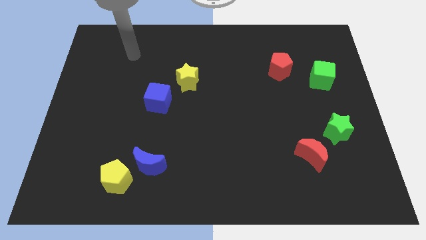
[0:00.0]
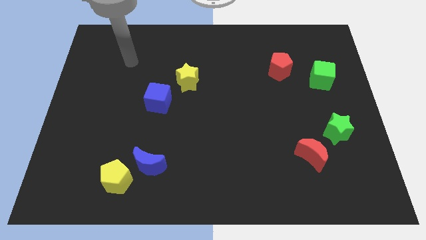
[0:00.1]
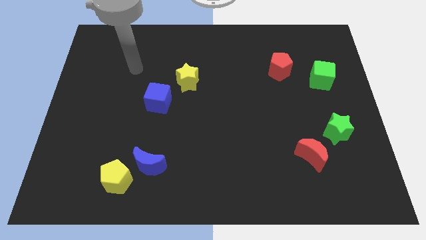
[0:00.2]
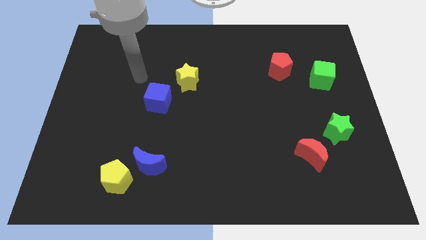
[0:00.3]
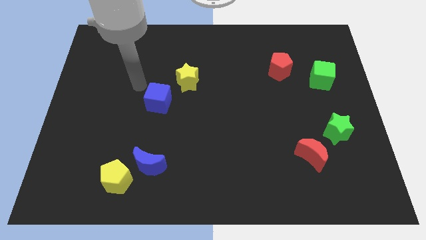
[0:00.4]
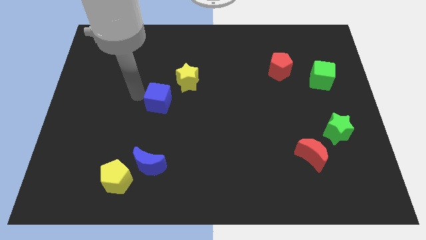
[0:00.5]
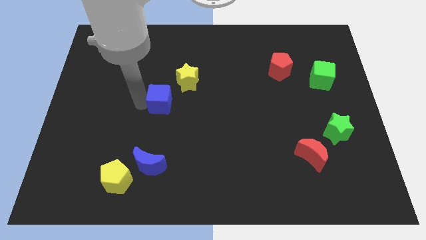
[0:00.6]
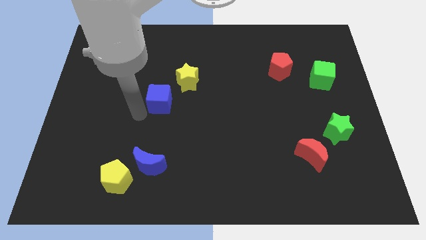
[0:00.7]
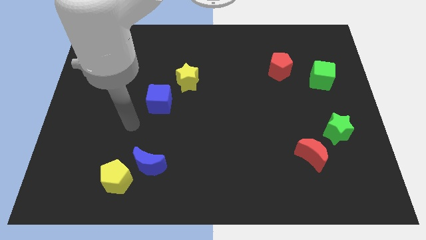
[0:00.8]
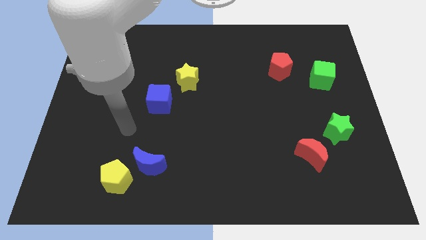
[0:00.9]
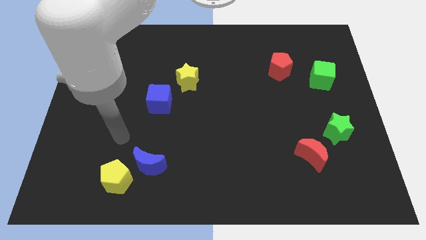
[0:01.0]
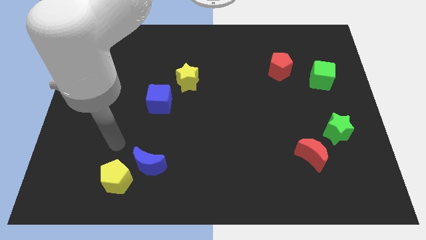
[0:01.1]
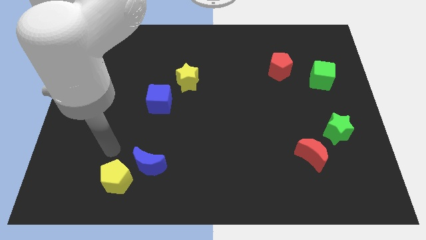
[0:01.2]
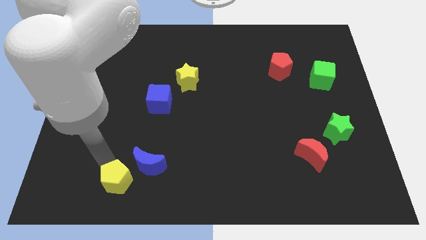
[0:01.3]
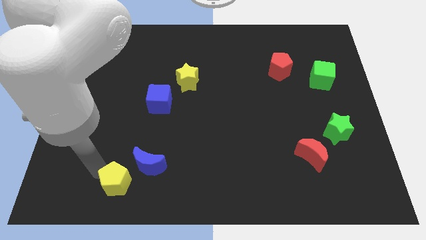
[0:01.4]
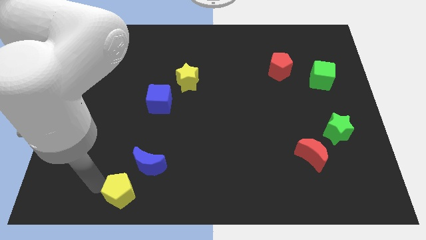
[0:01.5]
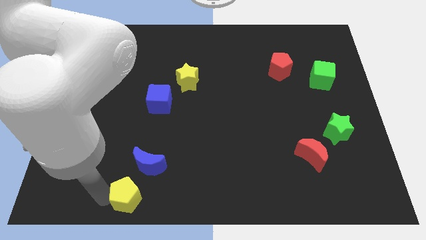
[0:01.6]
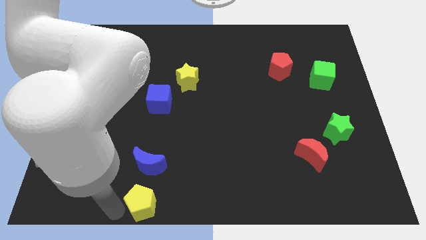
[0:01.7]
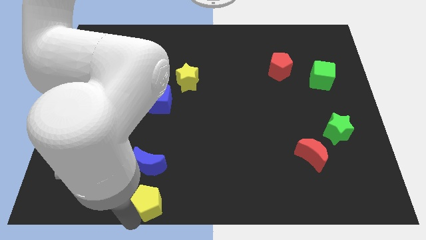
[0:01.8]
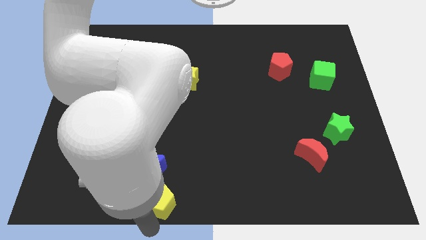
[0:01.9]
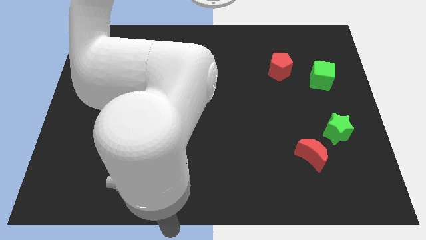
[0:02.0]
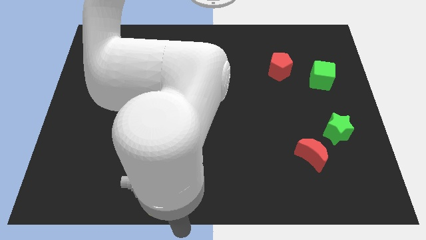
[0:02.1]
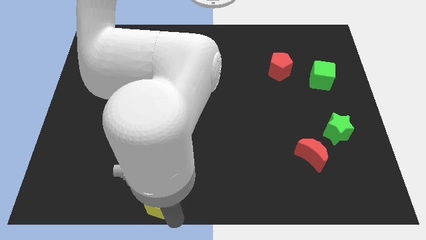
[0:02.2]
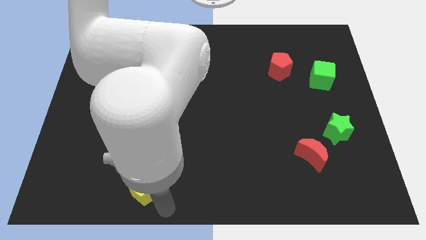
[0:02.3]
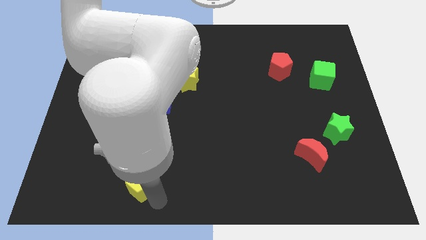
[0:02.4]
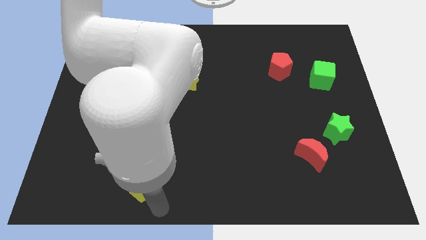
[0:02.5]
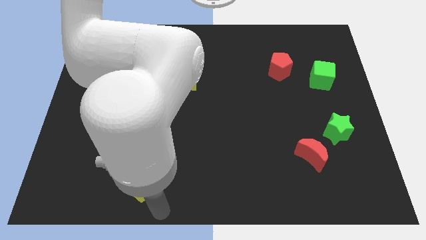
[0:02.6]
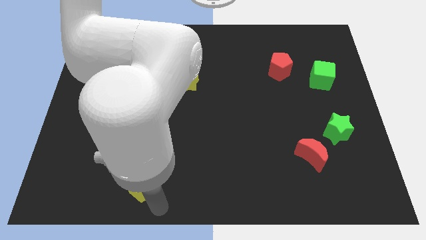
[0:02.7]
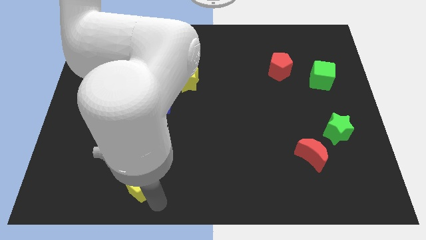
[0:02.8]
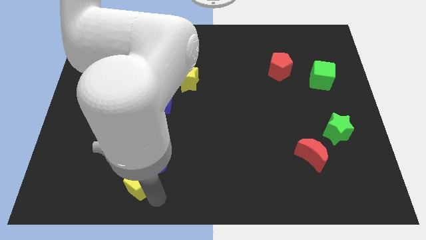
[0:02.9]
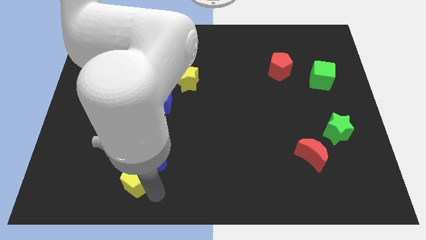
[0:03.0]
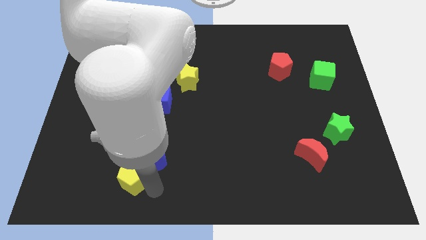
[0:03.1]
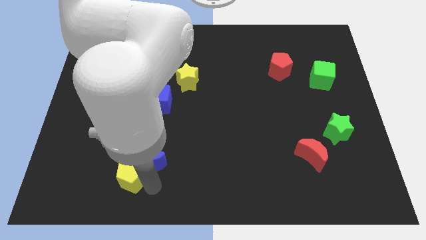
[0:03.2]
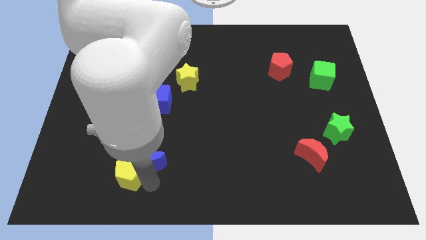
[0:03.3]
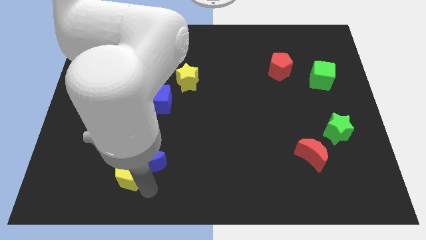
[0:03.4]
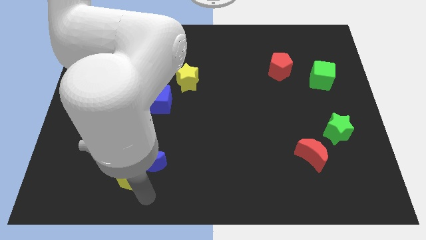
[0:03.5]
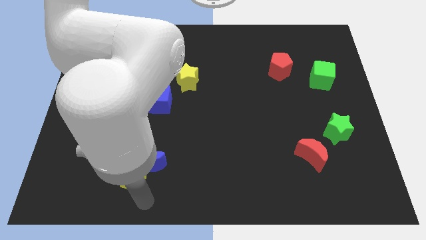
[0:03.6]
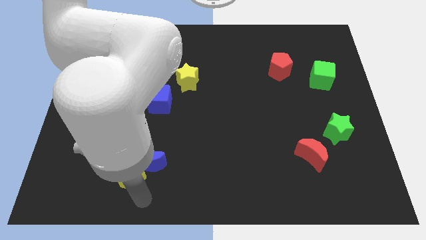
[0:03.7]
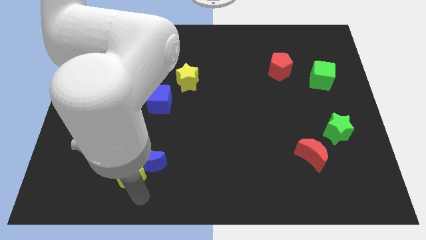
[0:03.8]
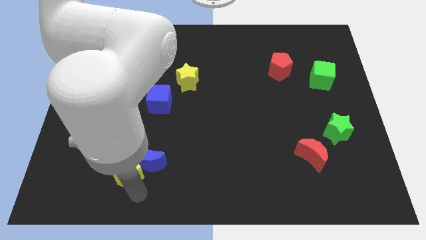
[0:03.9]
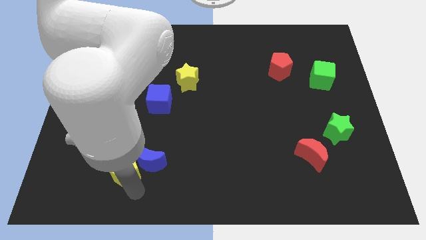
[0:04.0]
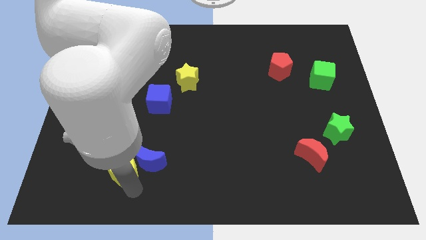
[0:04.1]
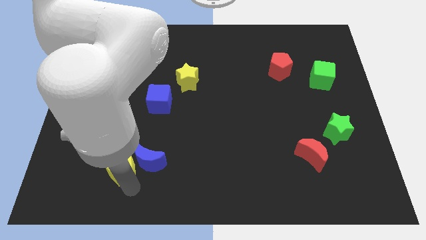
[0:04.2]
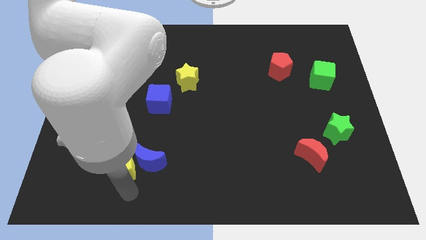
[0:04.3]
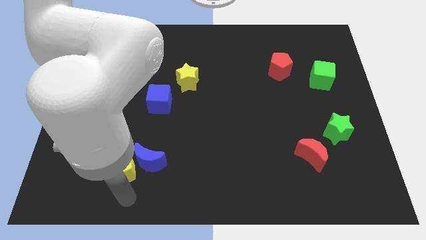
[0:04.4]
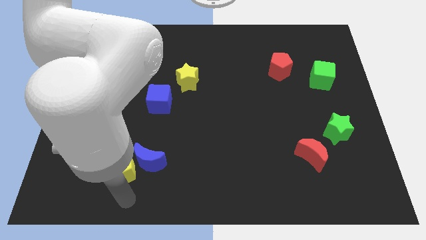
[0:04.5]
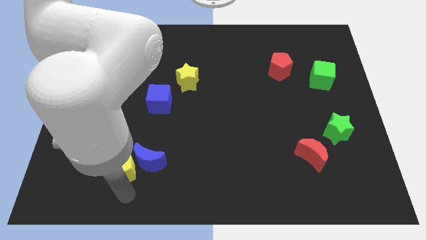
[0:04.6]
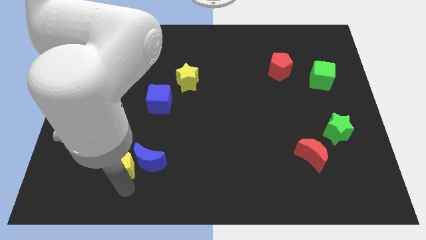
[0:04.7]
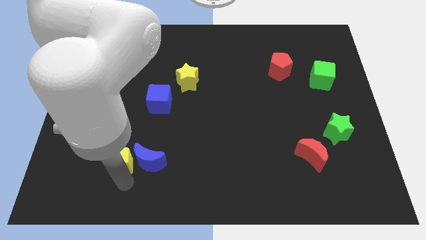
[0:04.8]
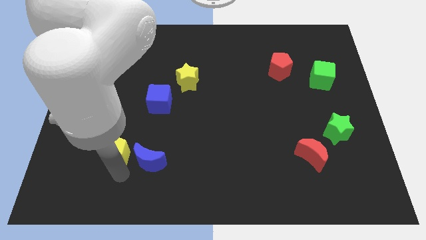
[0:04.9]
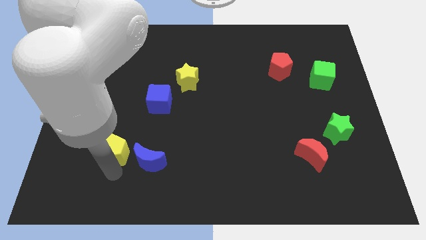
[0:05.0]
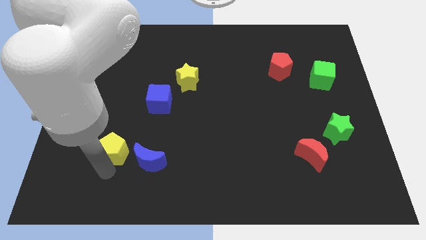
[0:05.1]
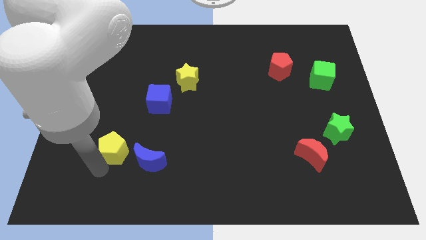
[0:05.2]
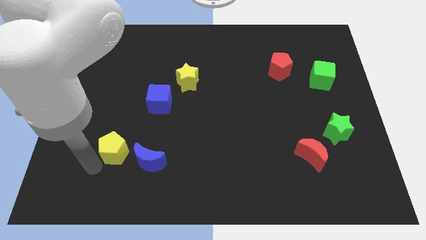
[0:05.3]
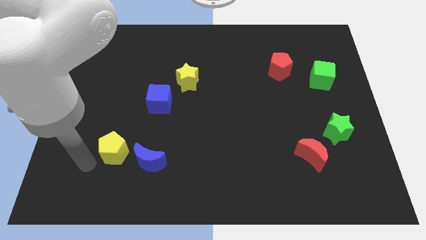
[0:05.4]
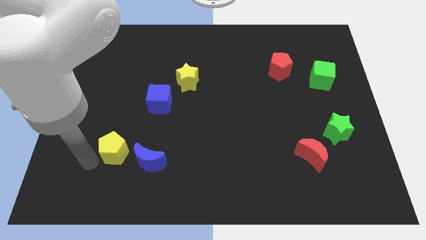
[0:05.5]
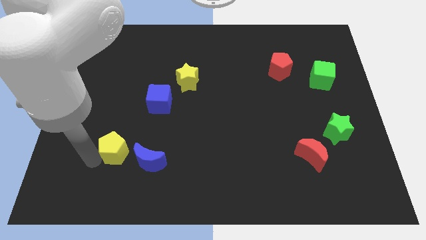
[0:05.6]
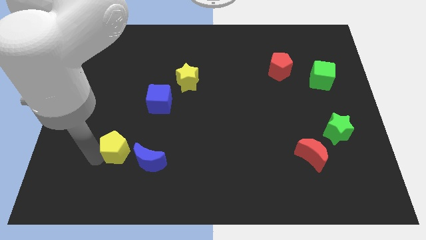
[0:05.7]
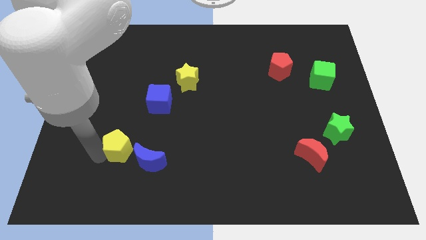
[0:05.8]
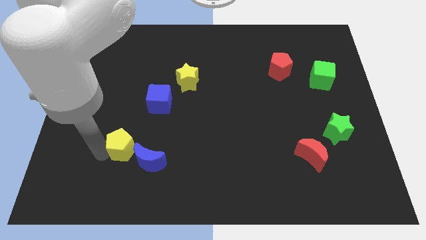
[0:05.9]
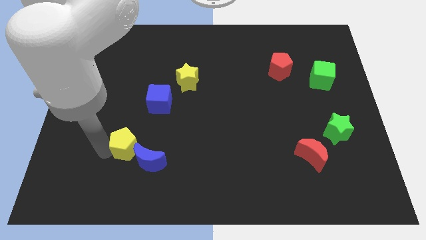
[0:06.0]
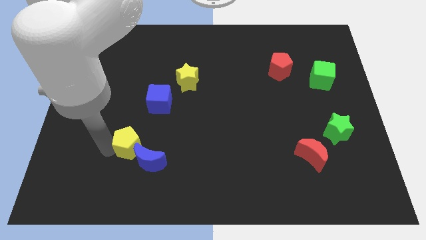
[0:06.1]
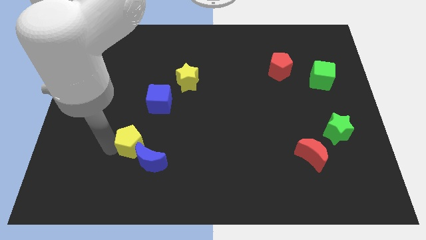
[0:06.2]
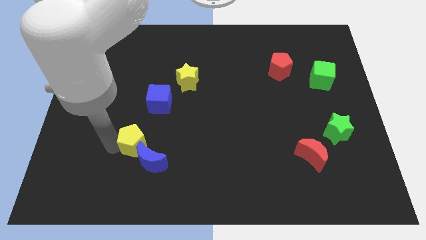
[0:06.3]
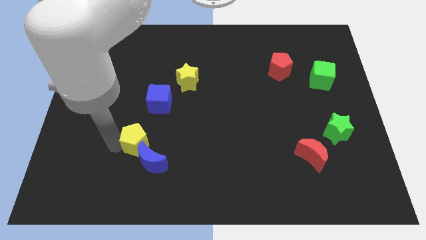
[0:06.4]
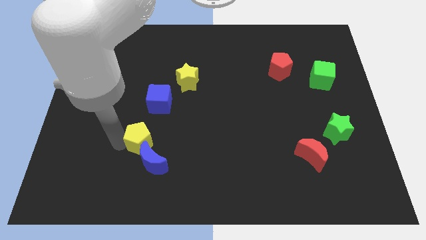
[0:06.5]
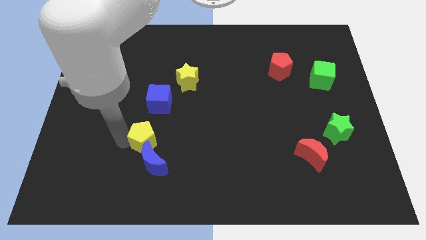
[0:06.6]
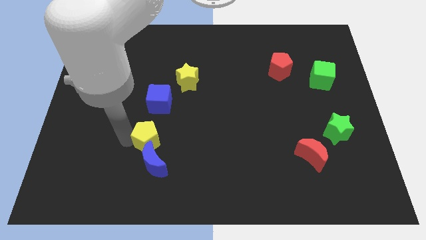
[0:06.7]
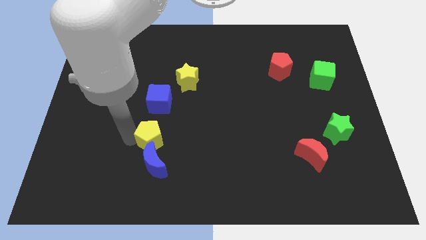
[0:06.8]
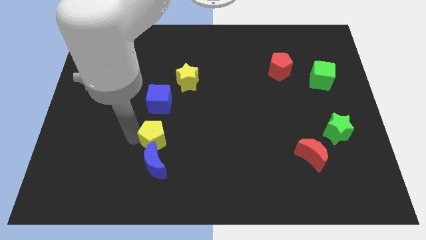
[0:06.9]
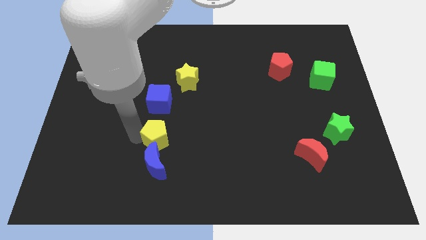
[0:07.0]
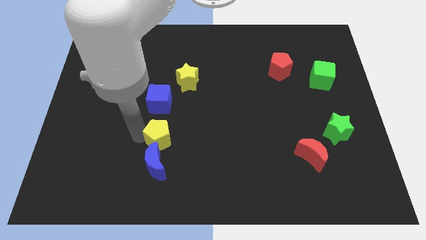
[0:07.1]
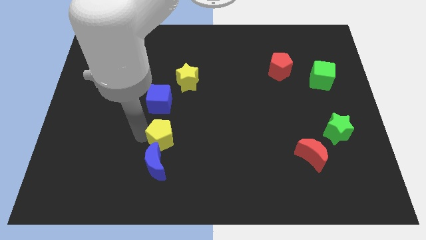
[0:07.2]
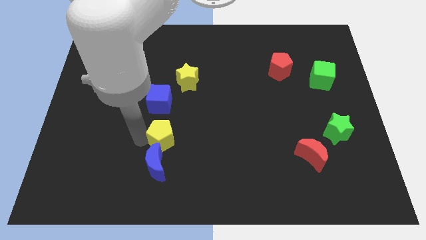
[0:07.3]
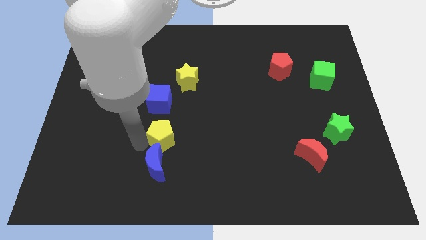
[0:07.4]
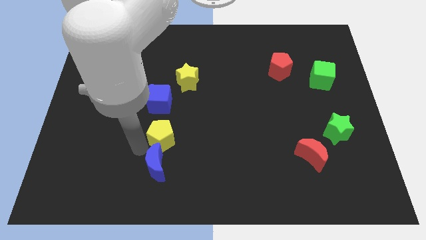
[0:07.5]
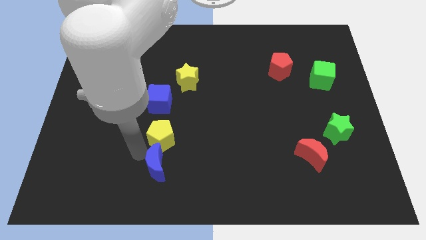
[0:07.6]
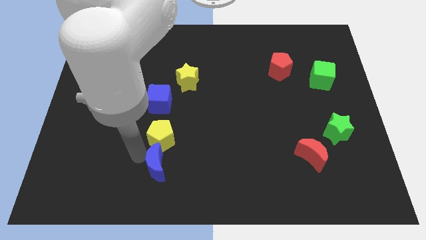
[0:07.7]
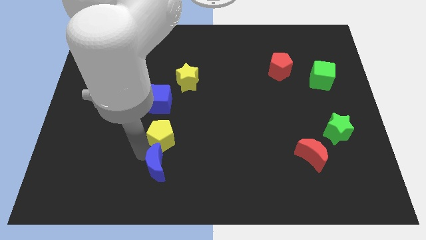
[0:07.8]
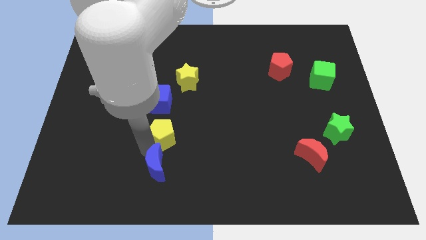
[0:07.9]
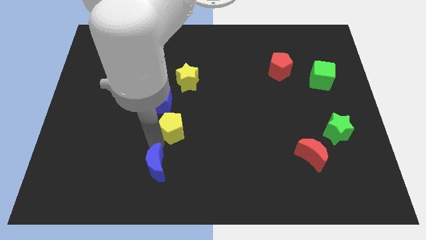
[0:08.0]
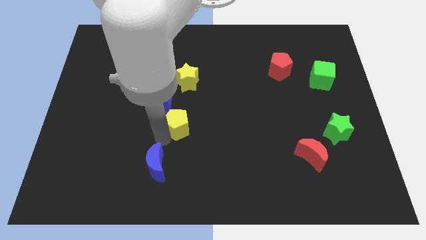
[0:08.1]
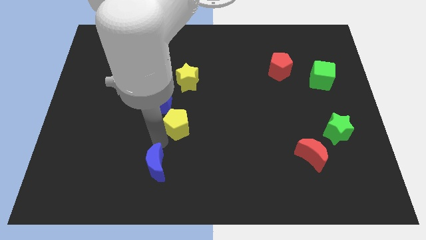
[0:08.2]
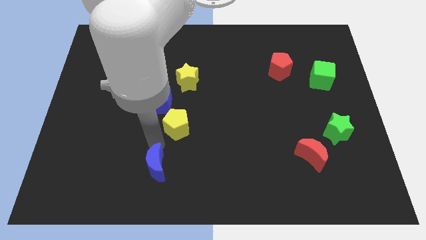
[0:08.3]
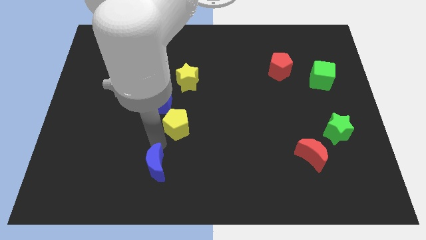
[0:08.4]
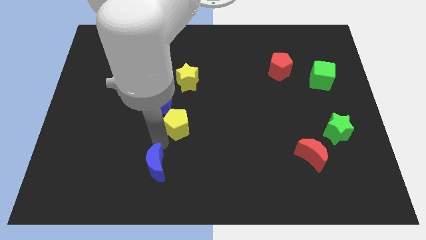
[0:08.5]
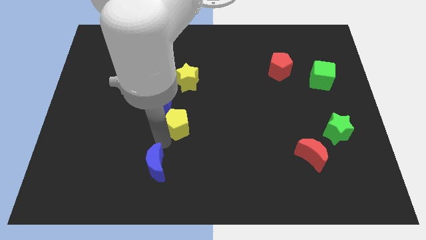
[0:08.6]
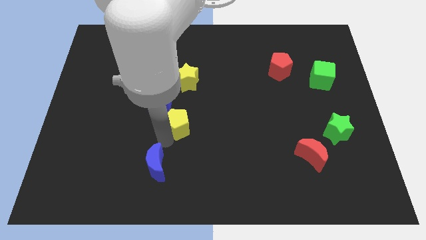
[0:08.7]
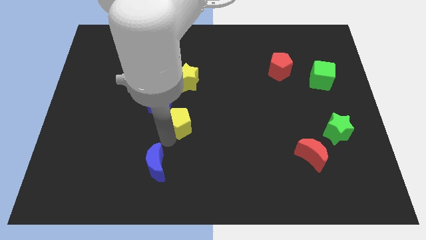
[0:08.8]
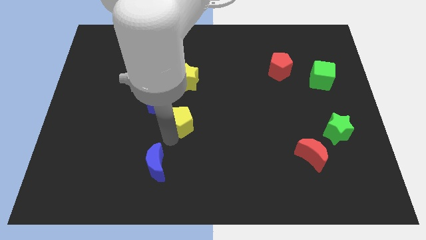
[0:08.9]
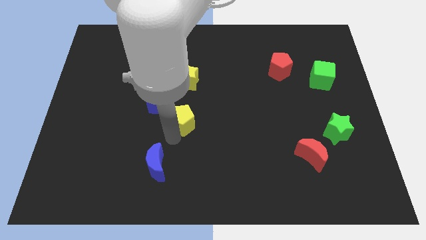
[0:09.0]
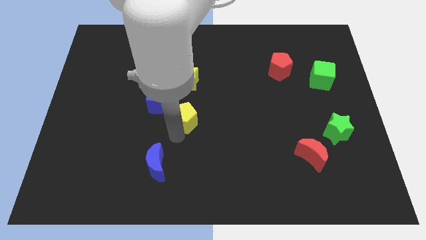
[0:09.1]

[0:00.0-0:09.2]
push the yellow pentagon up and right
